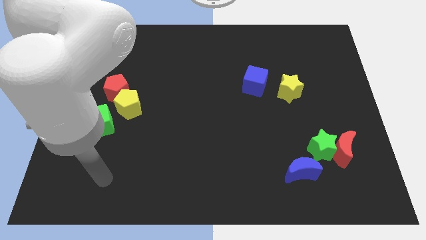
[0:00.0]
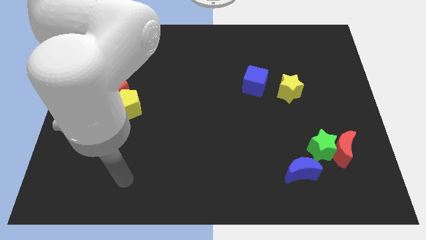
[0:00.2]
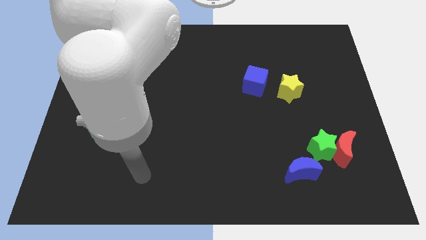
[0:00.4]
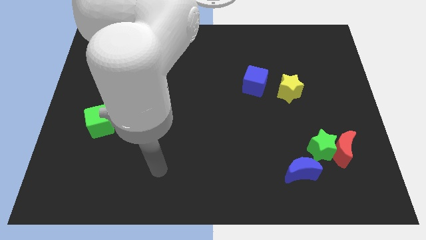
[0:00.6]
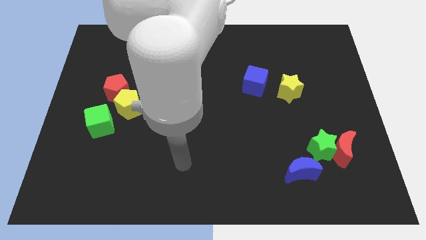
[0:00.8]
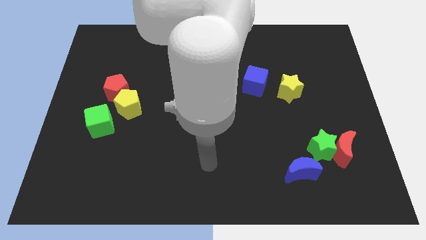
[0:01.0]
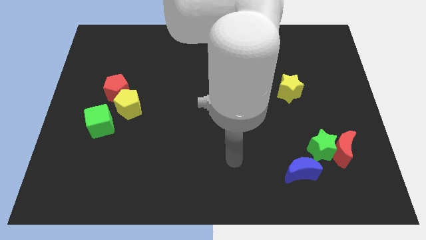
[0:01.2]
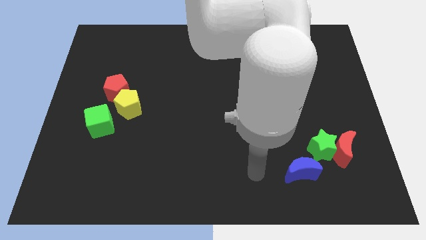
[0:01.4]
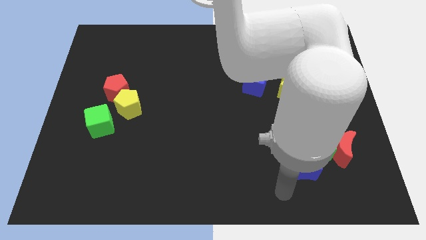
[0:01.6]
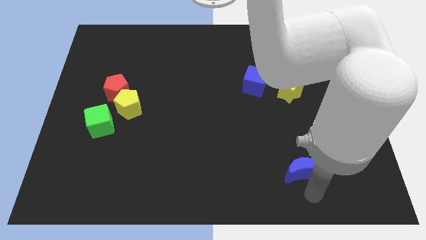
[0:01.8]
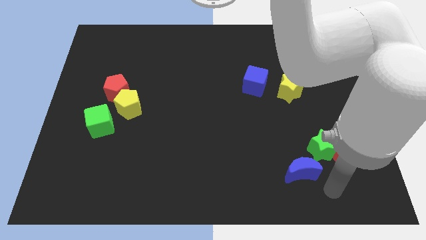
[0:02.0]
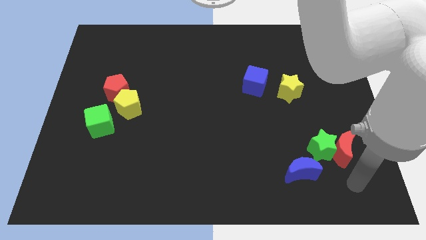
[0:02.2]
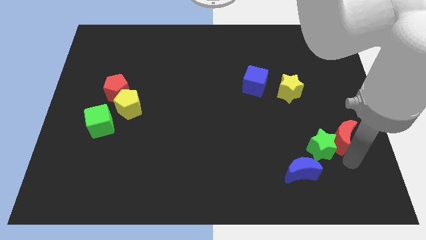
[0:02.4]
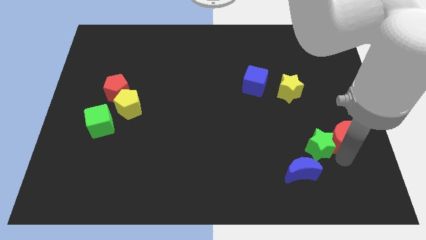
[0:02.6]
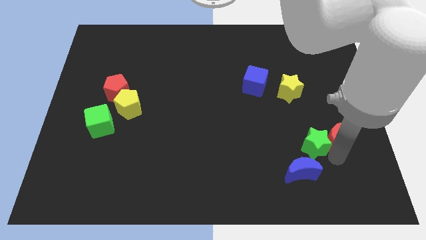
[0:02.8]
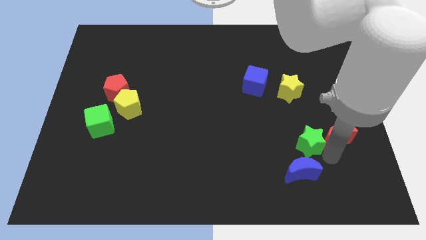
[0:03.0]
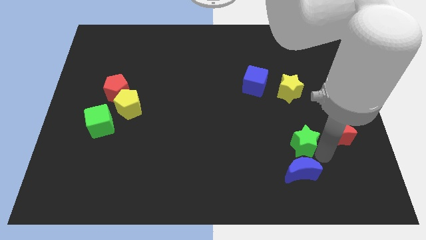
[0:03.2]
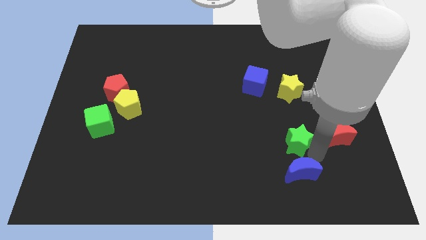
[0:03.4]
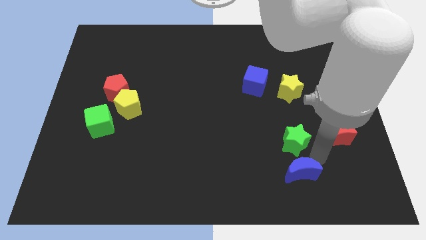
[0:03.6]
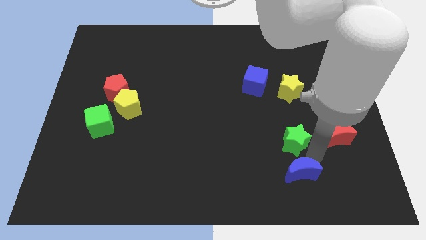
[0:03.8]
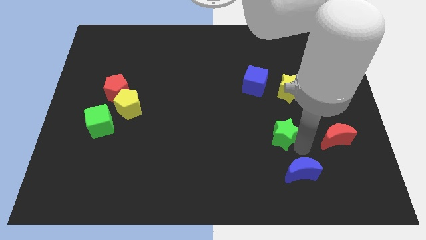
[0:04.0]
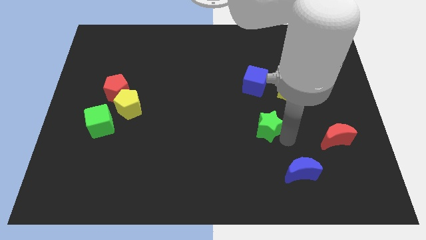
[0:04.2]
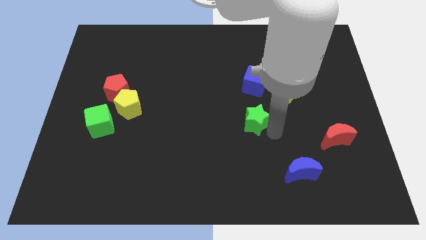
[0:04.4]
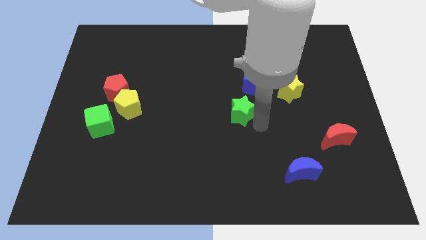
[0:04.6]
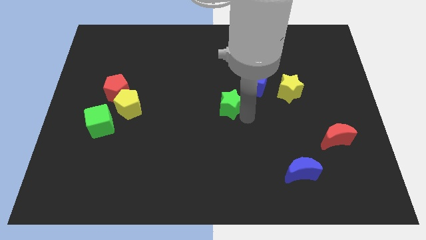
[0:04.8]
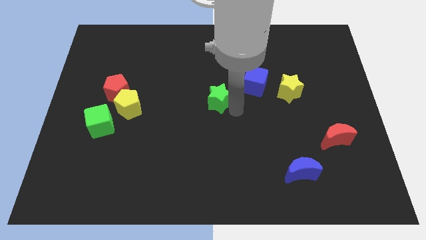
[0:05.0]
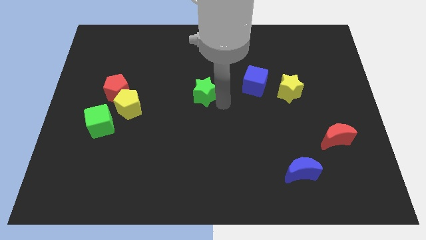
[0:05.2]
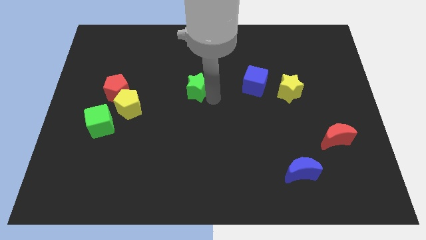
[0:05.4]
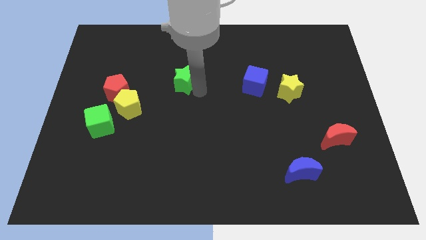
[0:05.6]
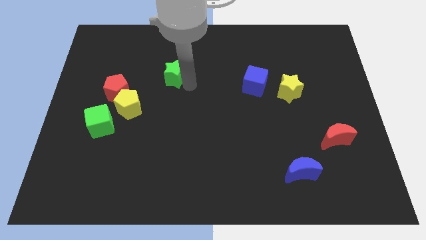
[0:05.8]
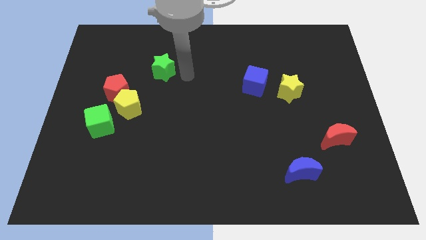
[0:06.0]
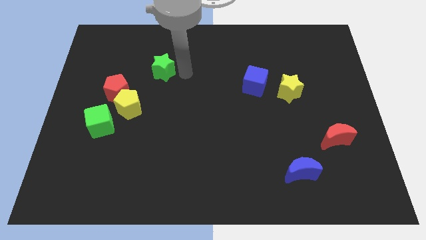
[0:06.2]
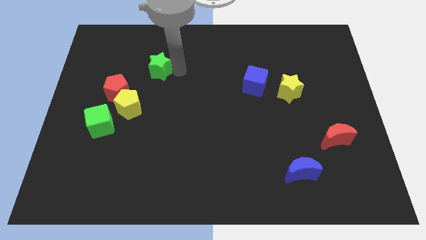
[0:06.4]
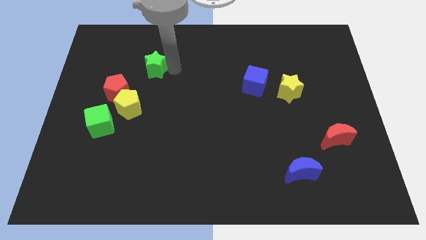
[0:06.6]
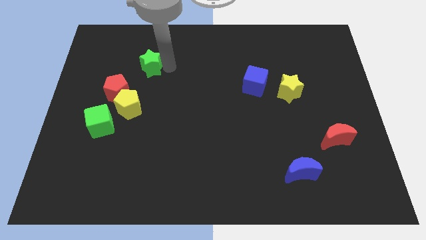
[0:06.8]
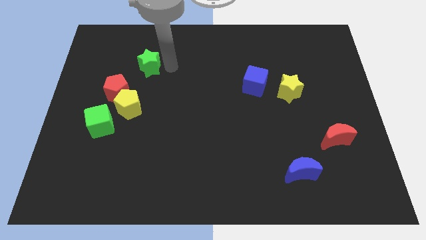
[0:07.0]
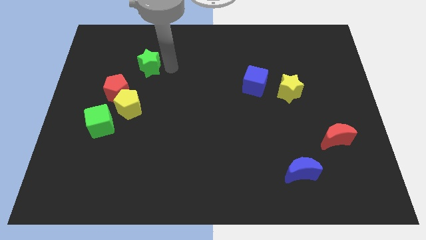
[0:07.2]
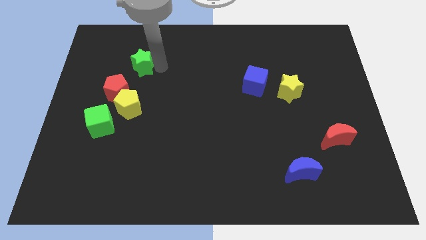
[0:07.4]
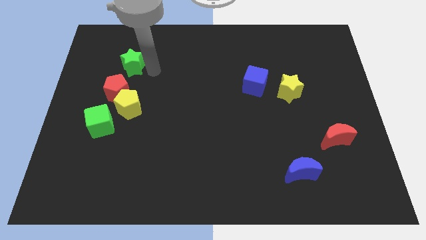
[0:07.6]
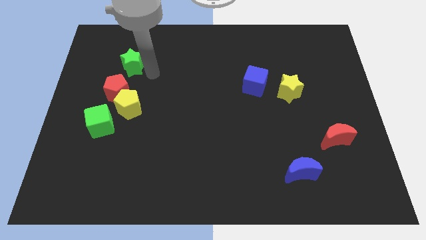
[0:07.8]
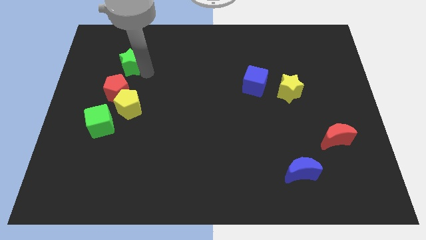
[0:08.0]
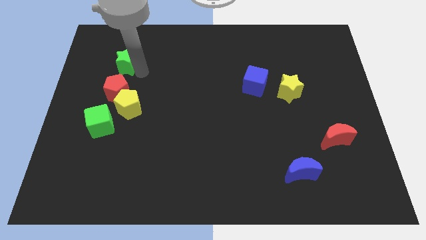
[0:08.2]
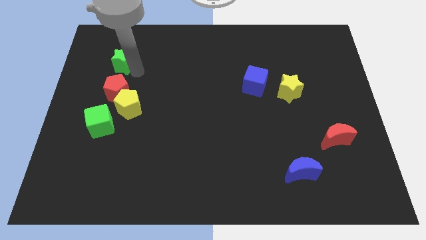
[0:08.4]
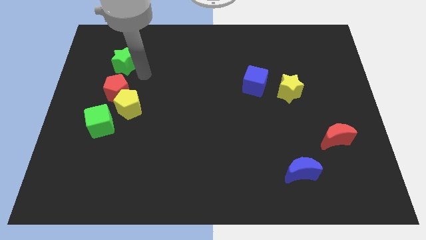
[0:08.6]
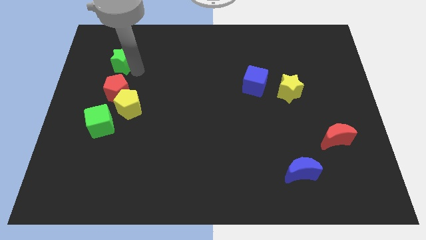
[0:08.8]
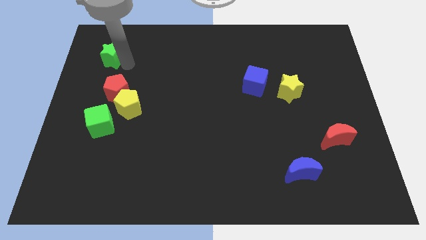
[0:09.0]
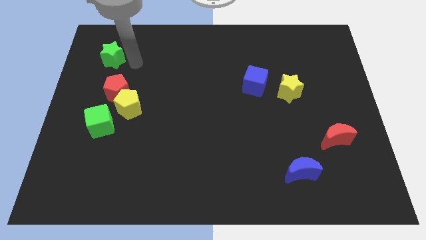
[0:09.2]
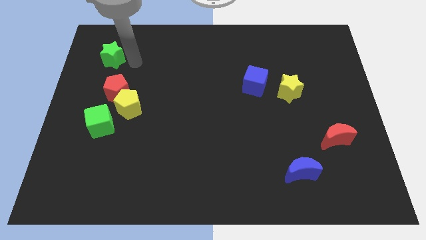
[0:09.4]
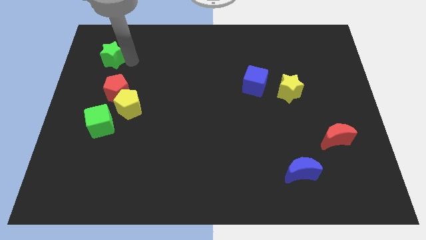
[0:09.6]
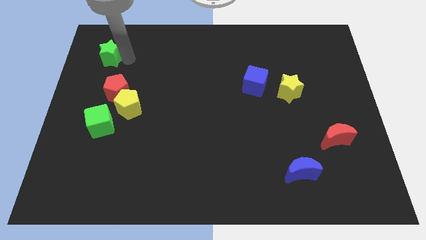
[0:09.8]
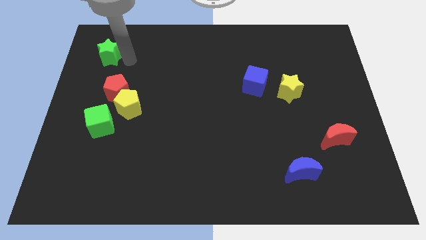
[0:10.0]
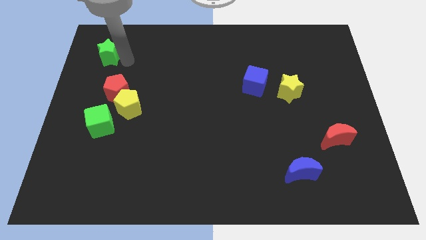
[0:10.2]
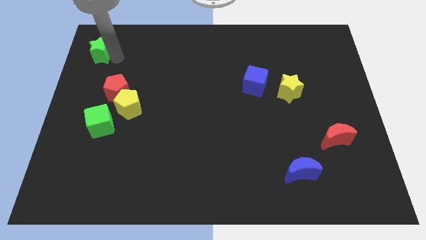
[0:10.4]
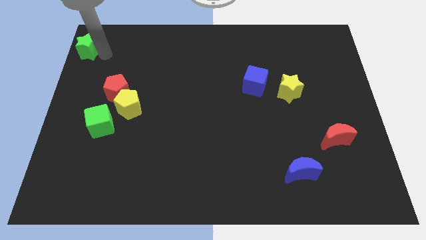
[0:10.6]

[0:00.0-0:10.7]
put the green star to the top left corner
